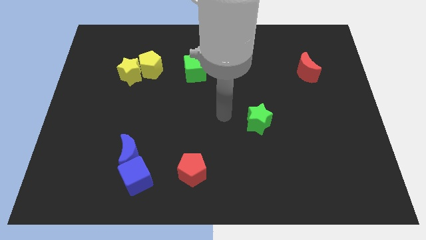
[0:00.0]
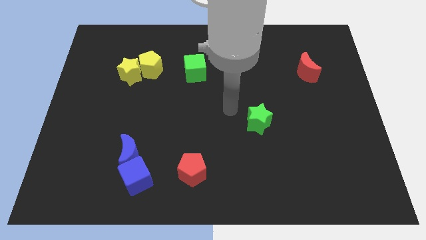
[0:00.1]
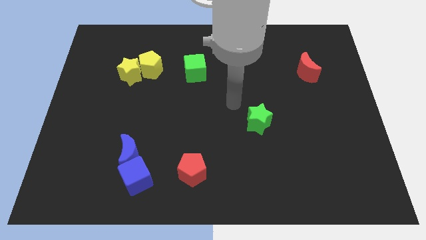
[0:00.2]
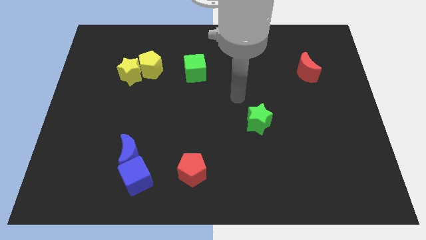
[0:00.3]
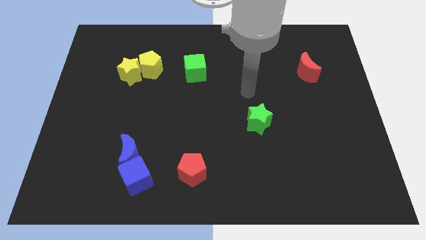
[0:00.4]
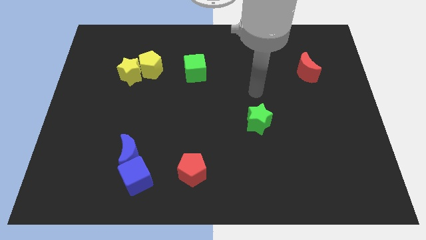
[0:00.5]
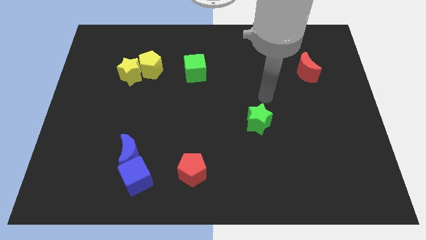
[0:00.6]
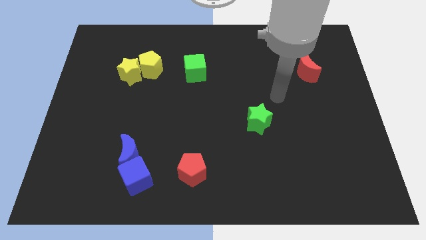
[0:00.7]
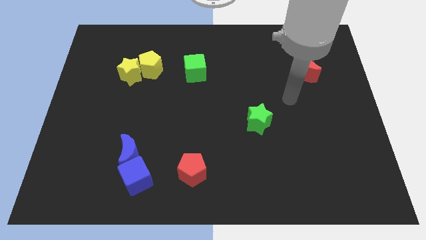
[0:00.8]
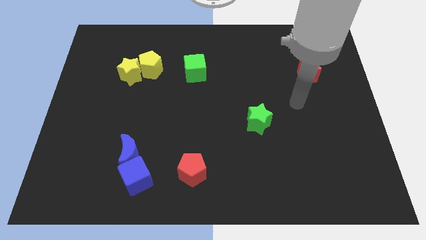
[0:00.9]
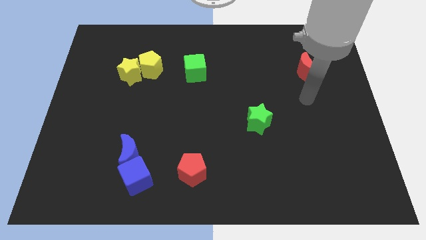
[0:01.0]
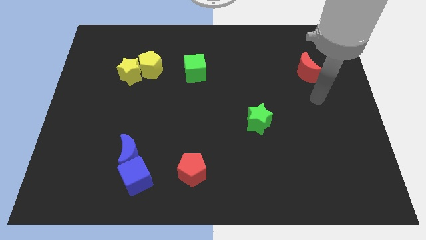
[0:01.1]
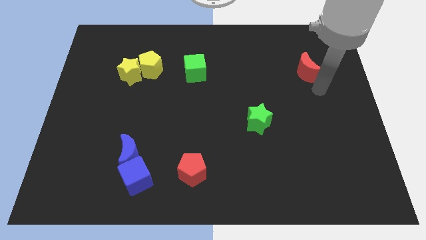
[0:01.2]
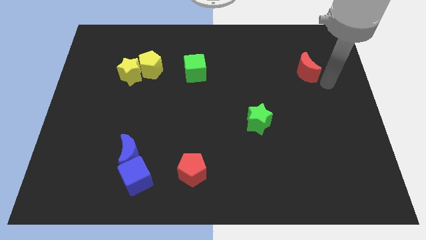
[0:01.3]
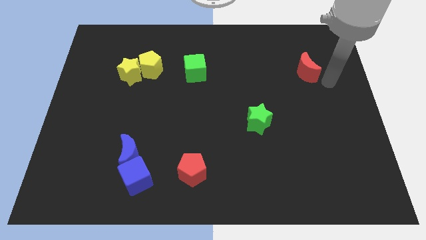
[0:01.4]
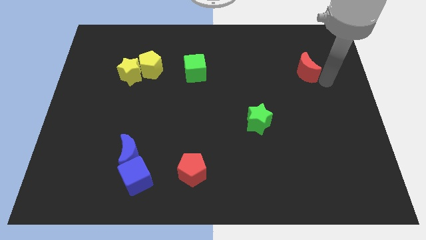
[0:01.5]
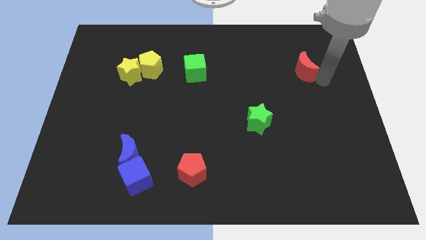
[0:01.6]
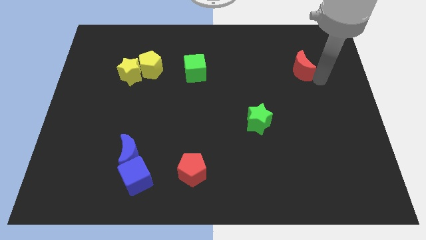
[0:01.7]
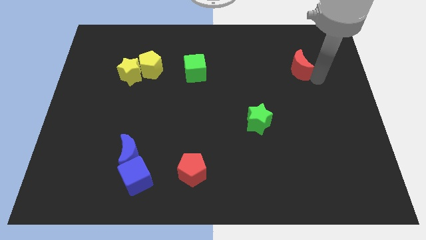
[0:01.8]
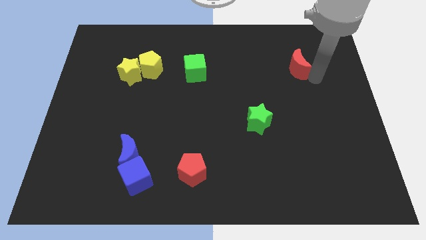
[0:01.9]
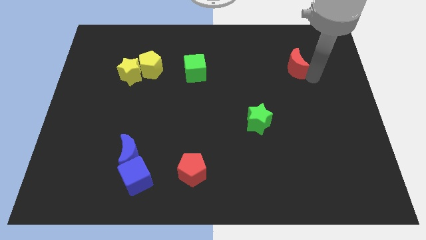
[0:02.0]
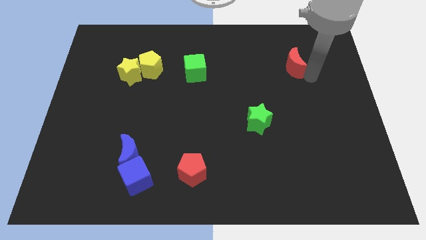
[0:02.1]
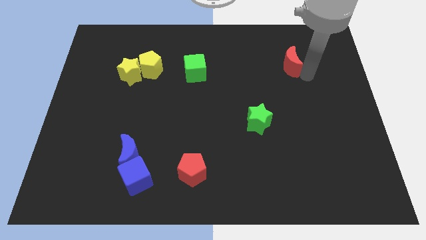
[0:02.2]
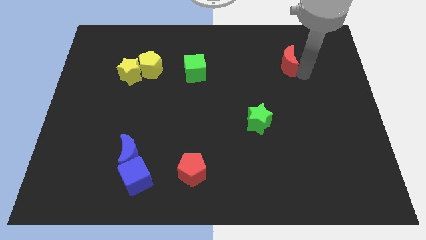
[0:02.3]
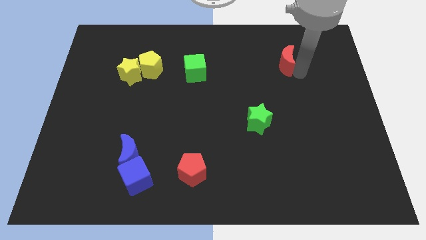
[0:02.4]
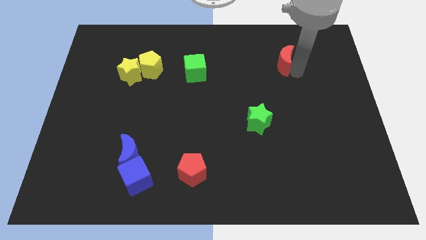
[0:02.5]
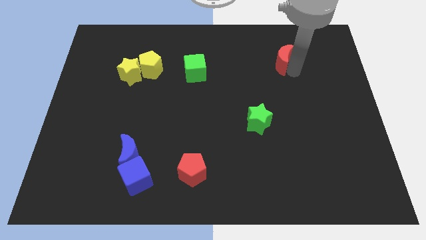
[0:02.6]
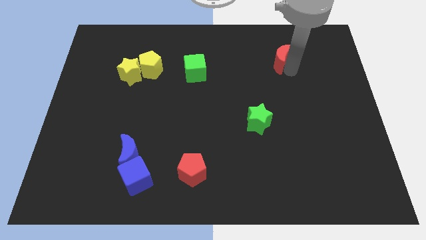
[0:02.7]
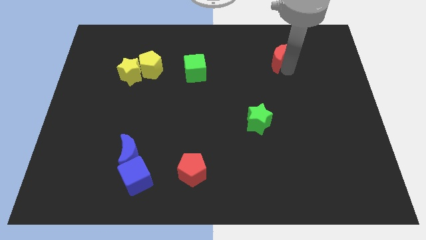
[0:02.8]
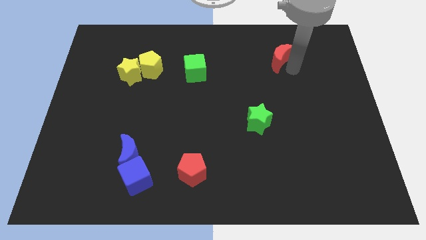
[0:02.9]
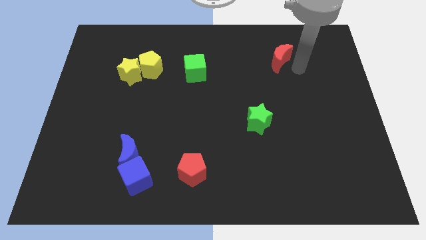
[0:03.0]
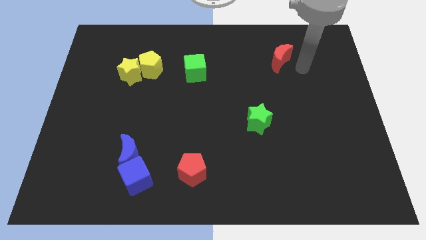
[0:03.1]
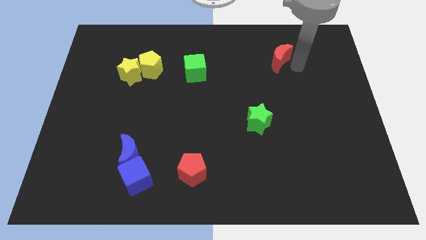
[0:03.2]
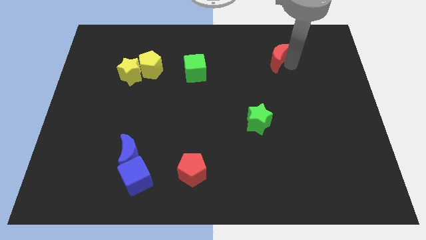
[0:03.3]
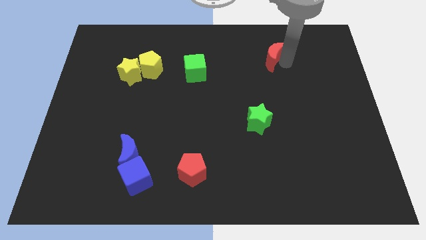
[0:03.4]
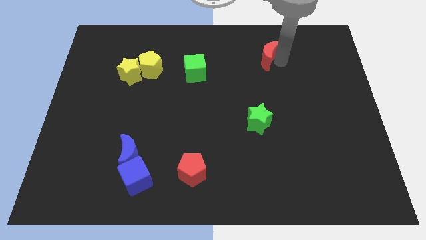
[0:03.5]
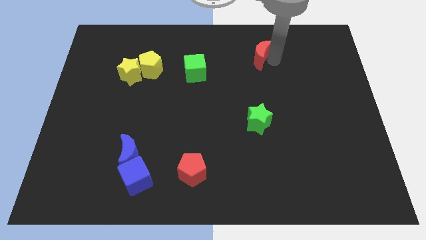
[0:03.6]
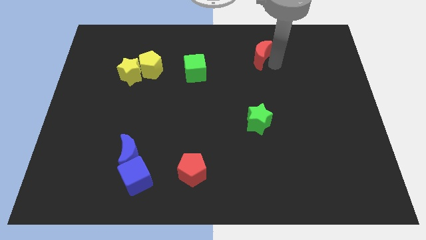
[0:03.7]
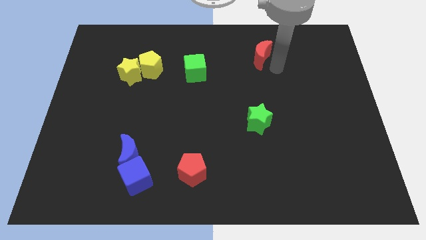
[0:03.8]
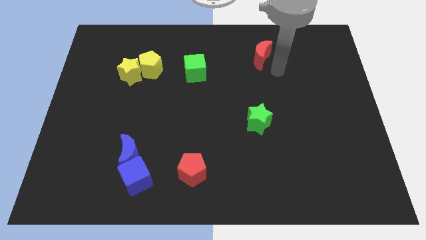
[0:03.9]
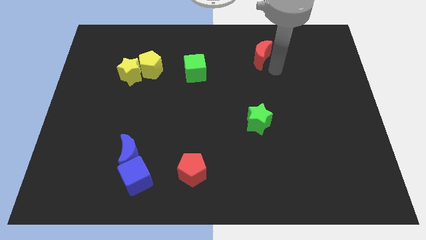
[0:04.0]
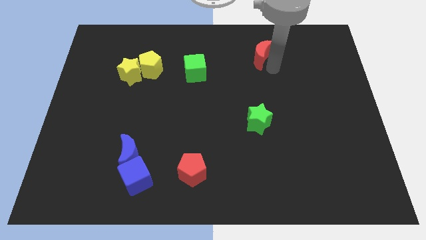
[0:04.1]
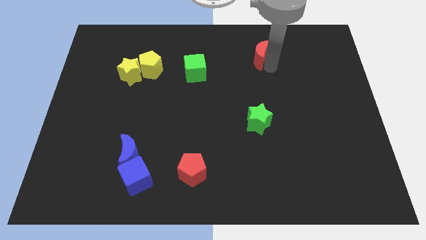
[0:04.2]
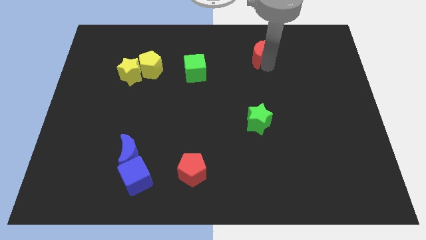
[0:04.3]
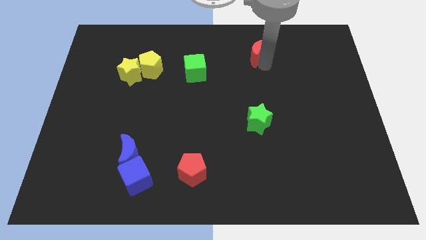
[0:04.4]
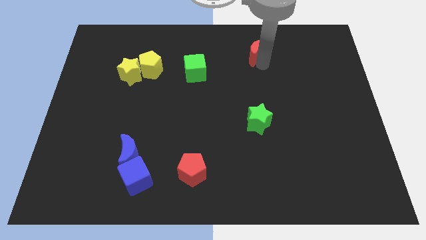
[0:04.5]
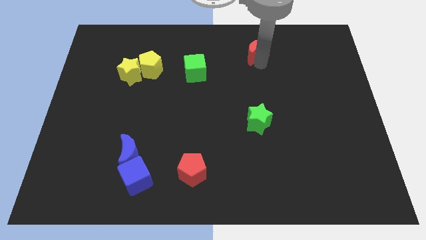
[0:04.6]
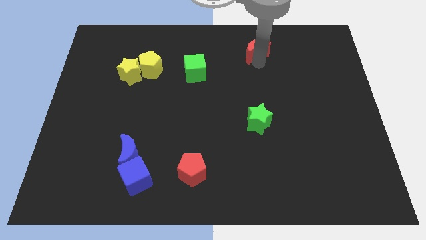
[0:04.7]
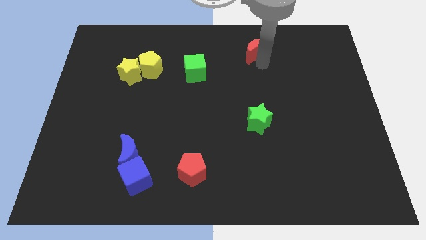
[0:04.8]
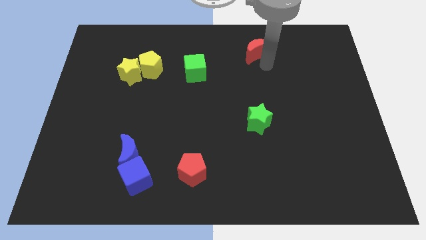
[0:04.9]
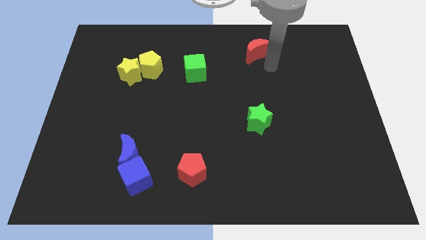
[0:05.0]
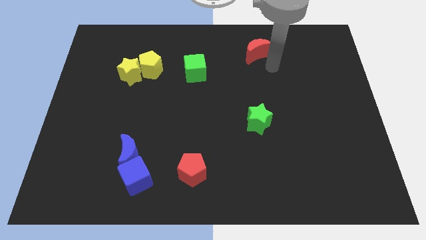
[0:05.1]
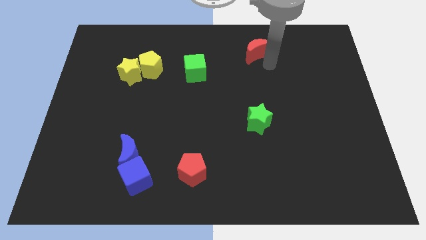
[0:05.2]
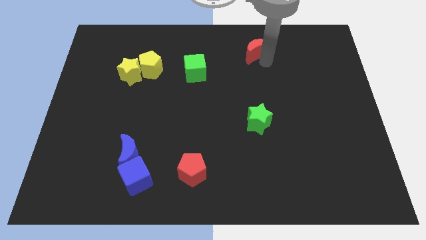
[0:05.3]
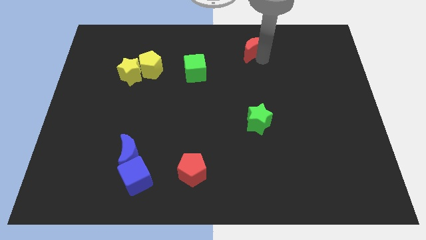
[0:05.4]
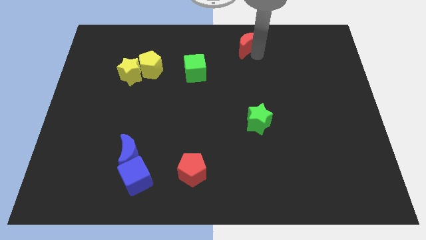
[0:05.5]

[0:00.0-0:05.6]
push the red moon to the top side

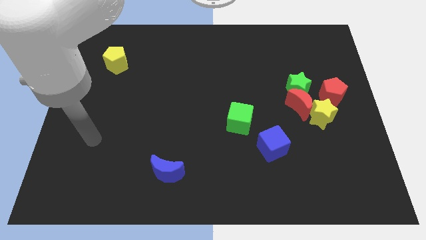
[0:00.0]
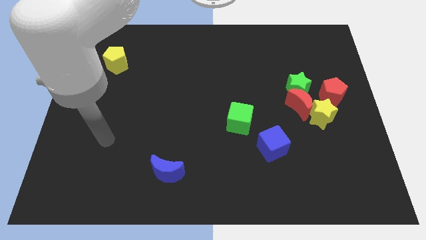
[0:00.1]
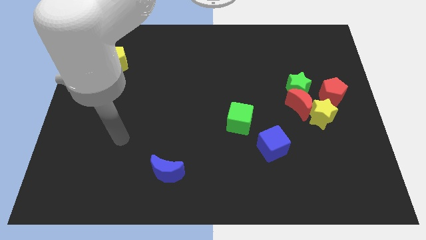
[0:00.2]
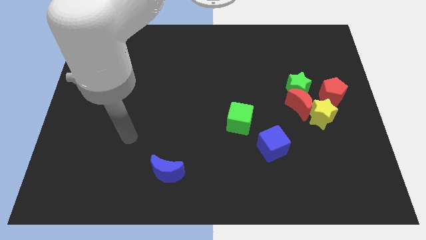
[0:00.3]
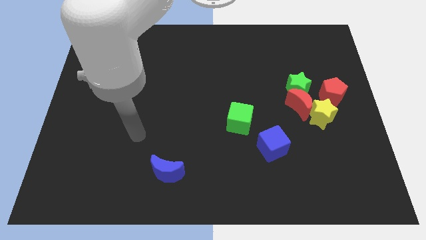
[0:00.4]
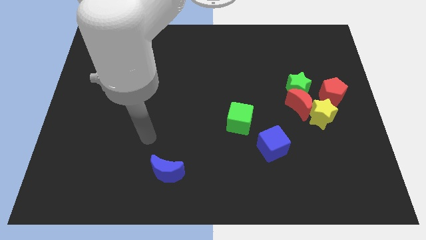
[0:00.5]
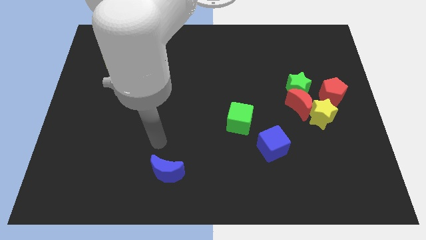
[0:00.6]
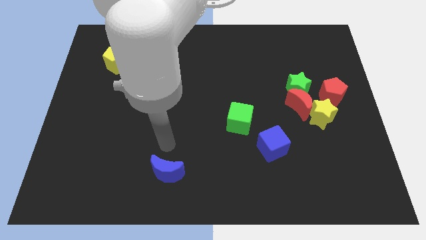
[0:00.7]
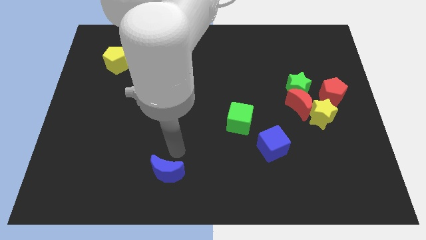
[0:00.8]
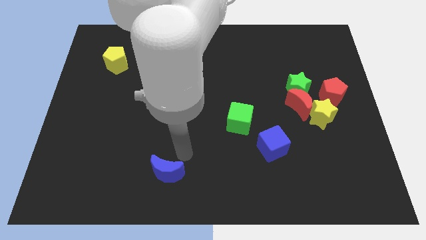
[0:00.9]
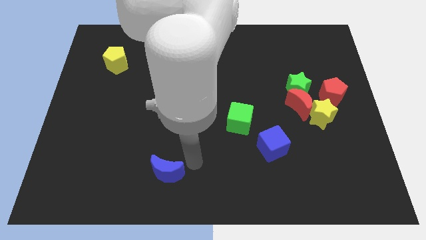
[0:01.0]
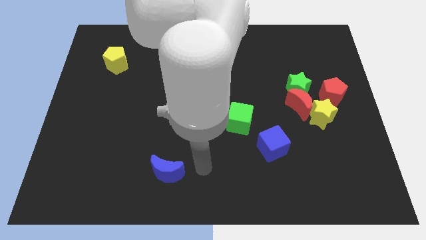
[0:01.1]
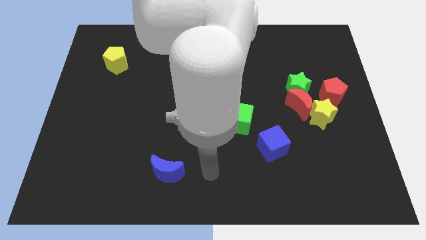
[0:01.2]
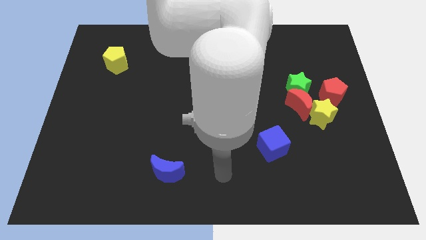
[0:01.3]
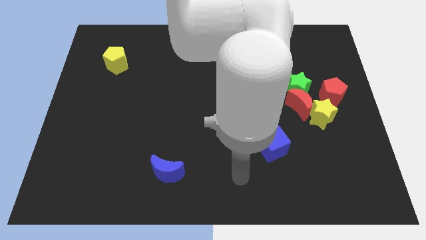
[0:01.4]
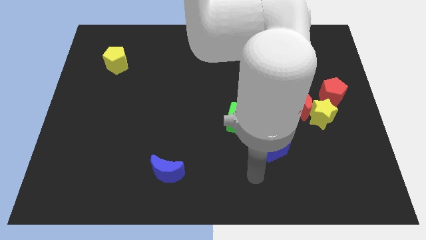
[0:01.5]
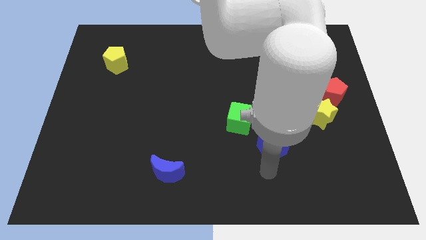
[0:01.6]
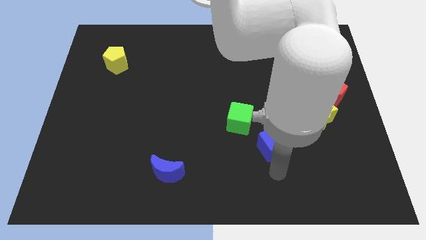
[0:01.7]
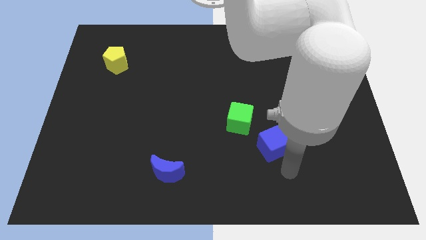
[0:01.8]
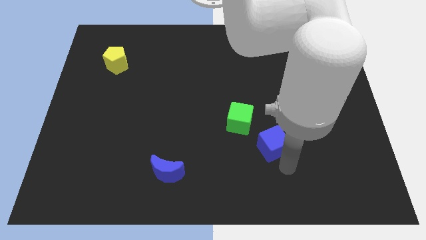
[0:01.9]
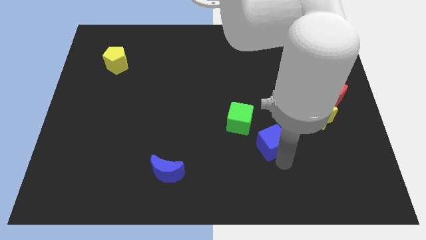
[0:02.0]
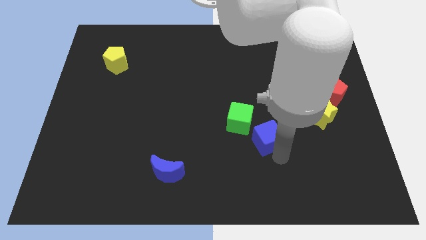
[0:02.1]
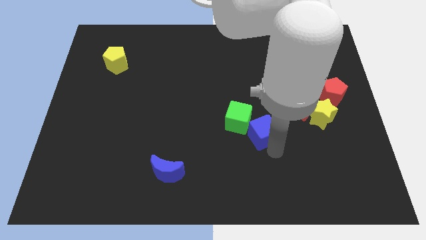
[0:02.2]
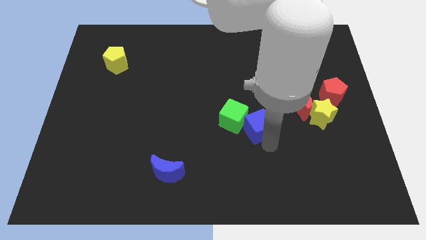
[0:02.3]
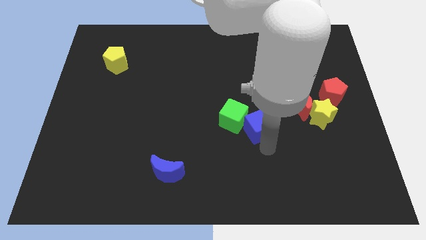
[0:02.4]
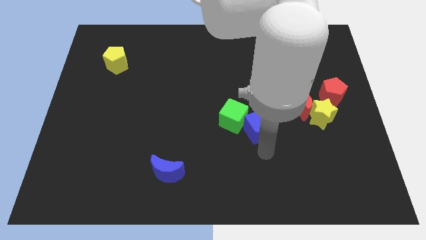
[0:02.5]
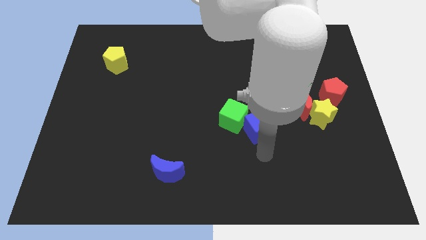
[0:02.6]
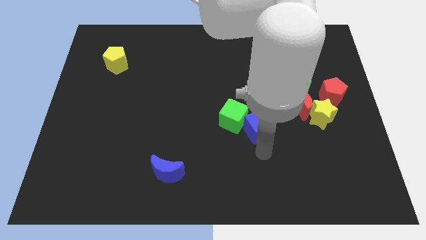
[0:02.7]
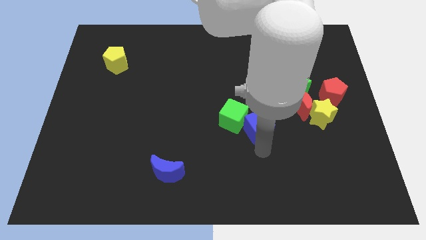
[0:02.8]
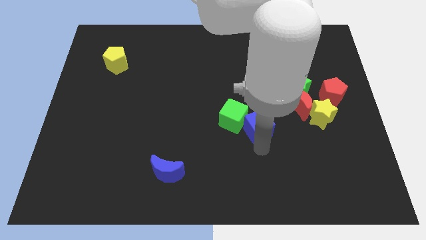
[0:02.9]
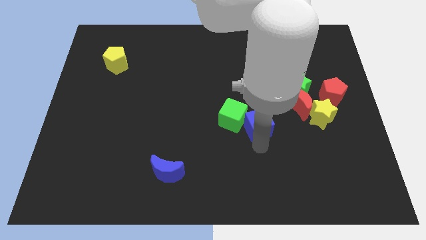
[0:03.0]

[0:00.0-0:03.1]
slide the blue cube to the middle of the board
